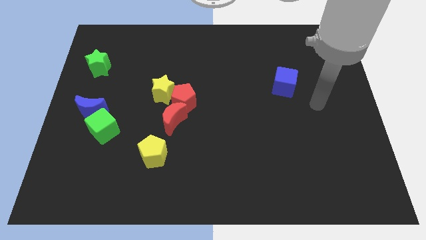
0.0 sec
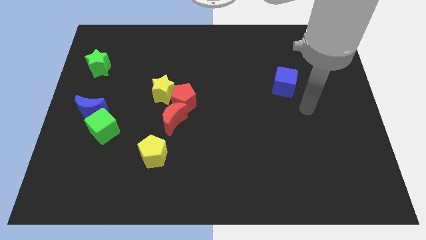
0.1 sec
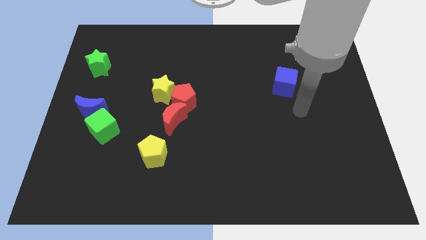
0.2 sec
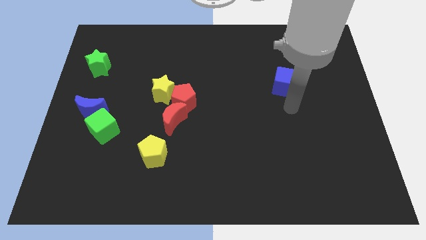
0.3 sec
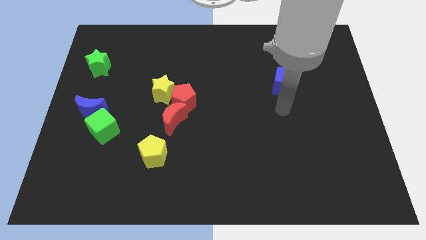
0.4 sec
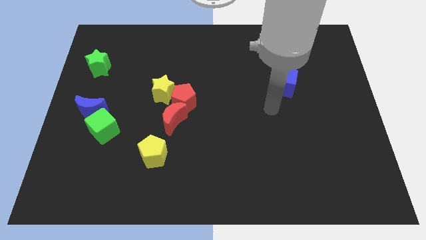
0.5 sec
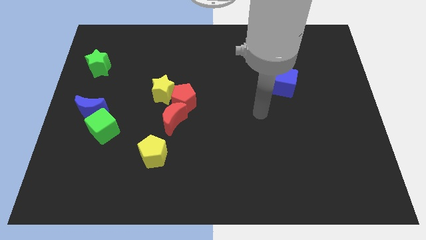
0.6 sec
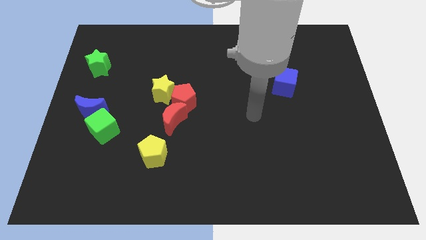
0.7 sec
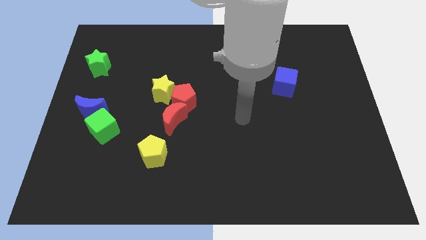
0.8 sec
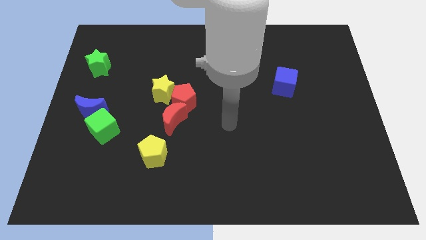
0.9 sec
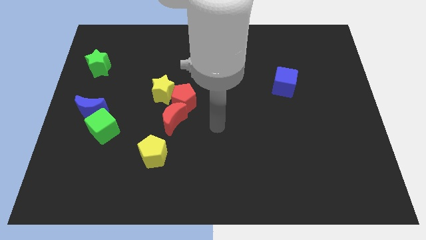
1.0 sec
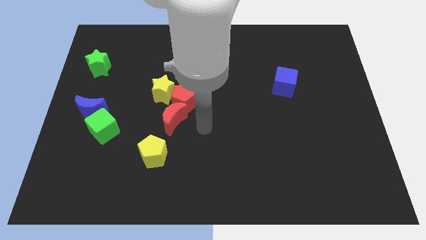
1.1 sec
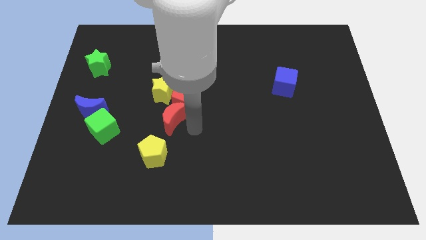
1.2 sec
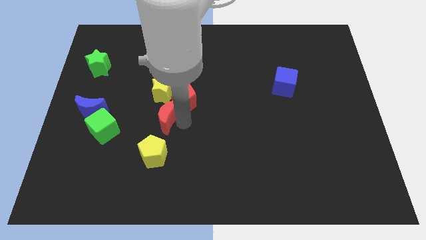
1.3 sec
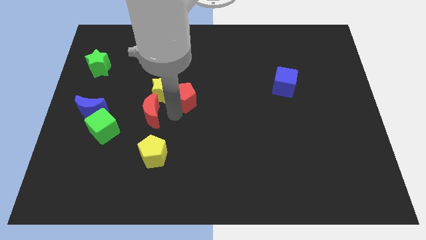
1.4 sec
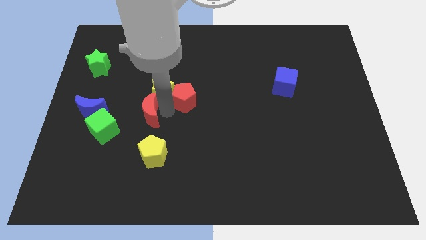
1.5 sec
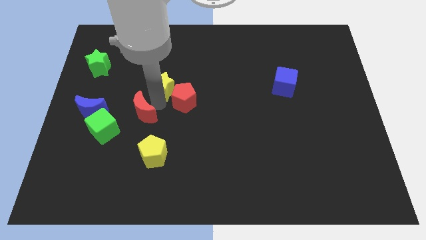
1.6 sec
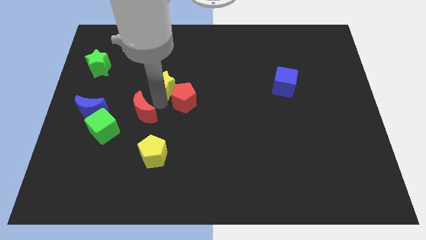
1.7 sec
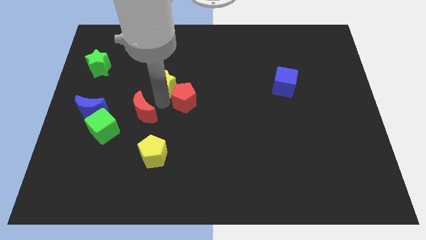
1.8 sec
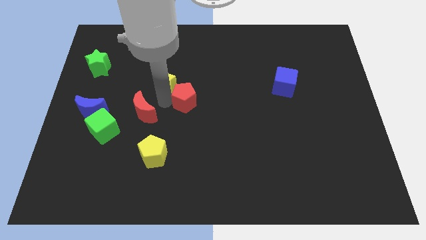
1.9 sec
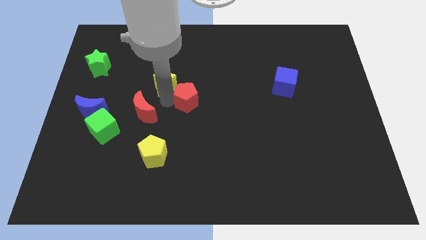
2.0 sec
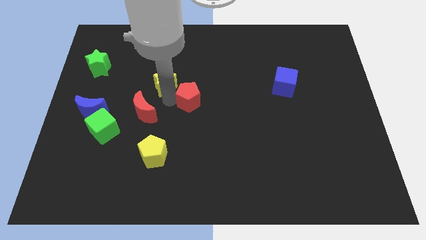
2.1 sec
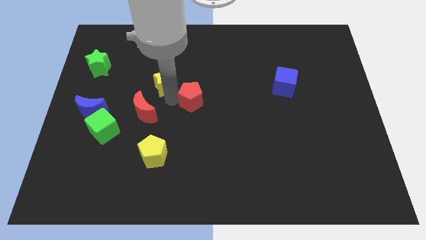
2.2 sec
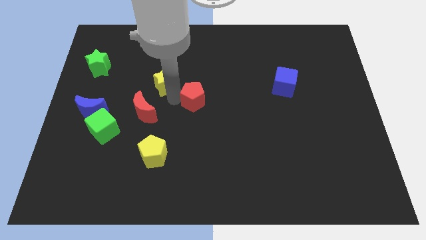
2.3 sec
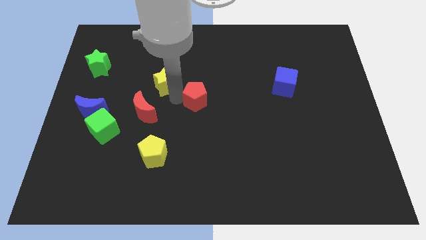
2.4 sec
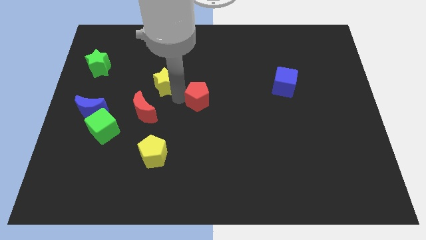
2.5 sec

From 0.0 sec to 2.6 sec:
pull the red pentagon apart from the yellow star and red moon

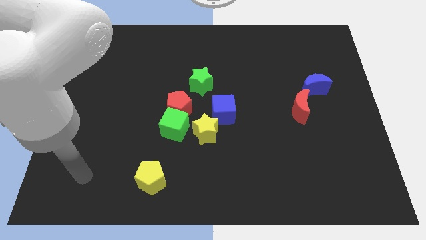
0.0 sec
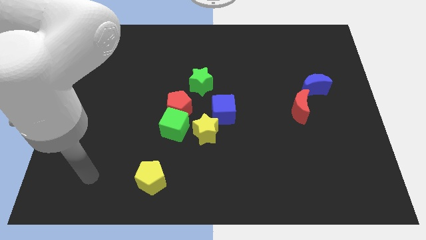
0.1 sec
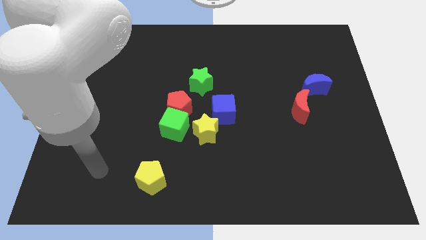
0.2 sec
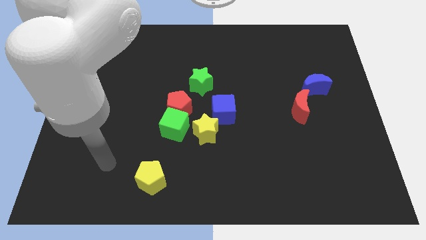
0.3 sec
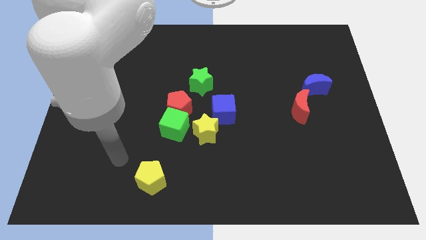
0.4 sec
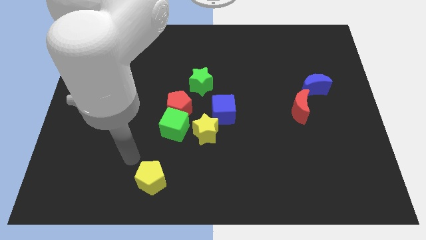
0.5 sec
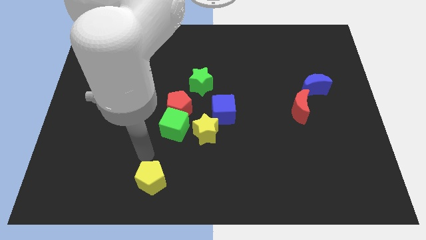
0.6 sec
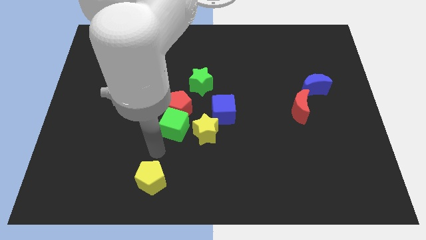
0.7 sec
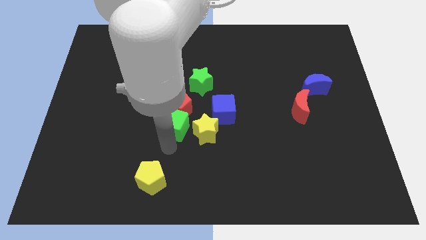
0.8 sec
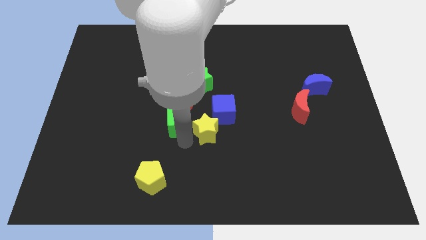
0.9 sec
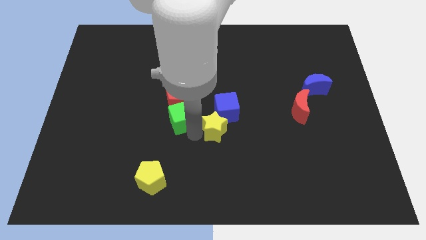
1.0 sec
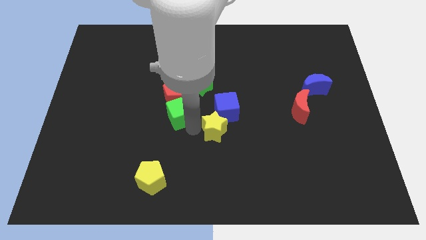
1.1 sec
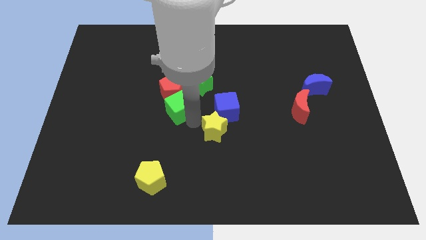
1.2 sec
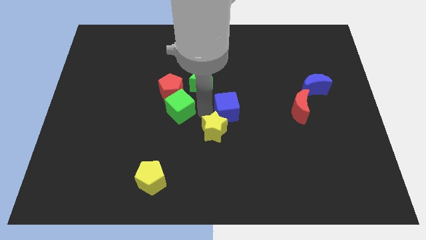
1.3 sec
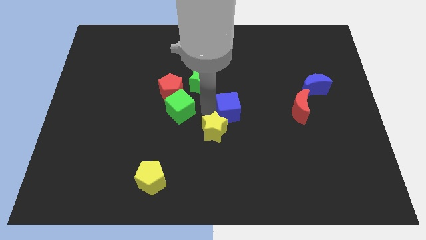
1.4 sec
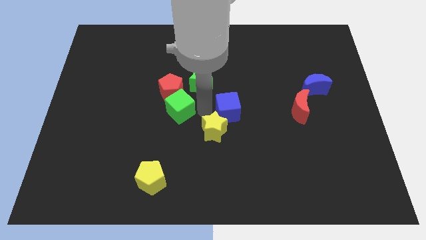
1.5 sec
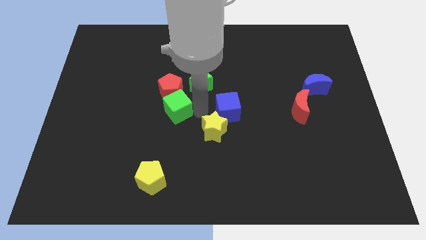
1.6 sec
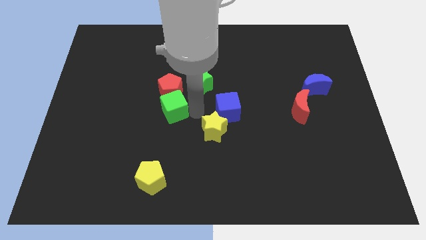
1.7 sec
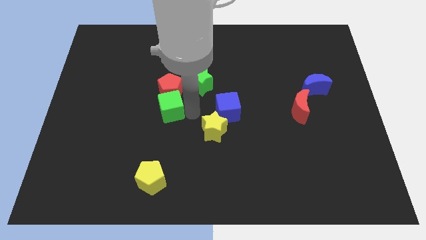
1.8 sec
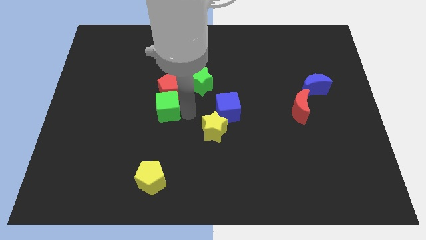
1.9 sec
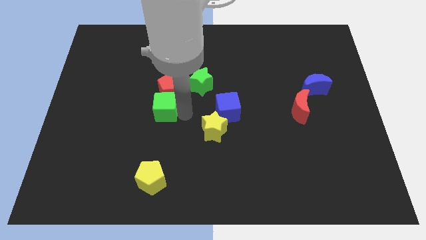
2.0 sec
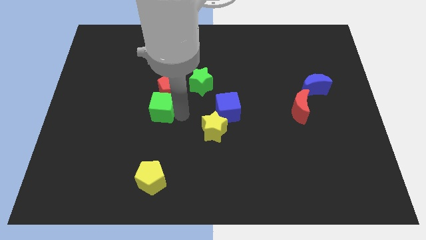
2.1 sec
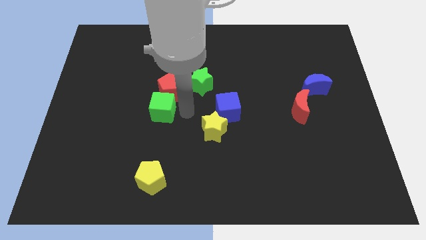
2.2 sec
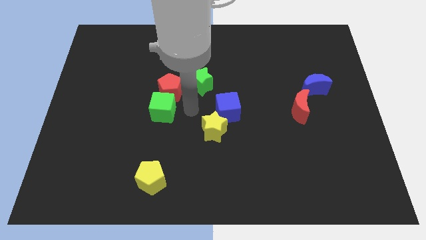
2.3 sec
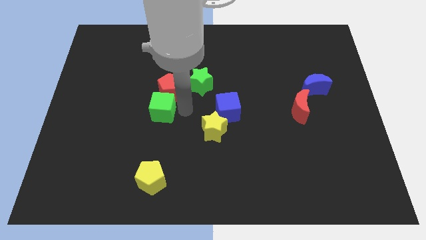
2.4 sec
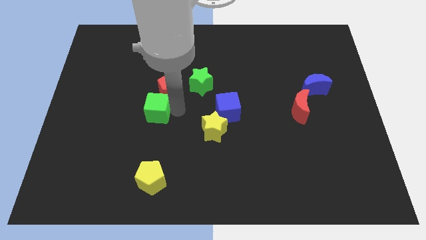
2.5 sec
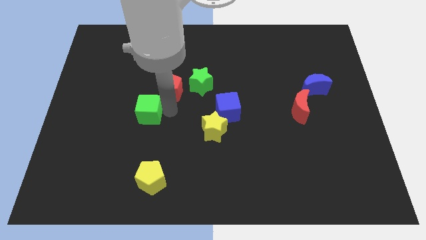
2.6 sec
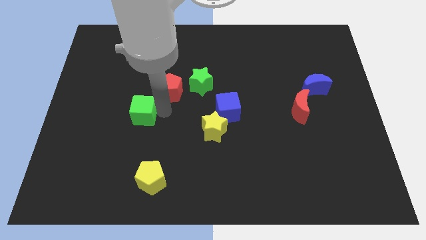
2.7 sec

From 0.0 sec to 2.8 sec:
move the green cube away from the red pentagon and yellow star

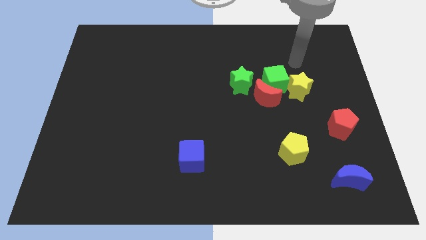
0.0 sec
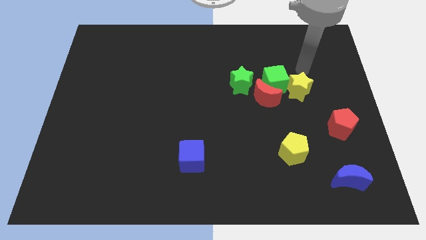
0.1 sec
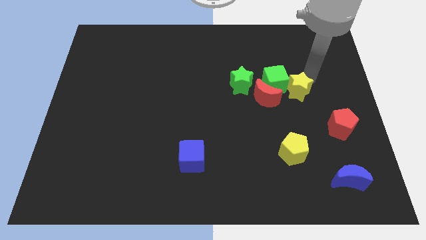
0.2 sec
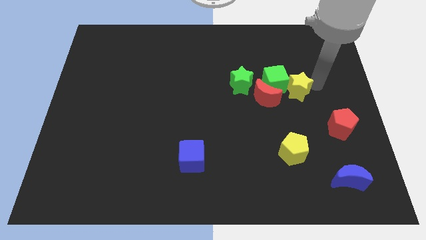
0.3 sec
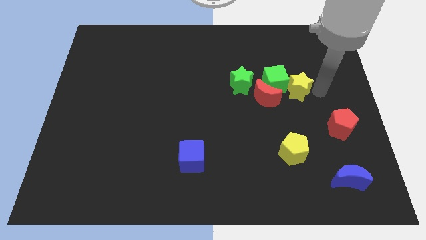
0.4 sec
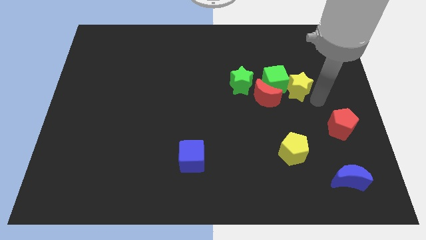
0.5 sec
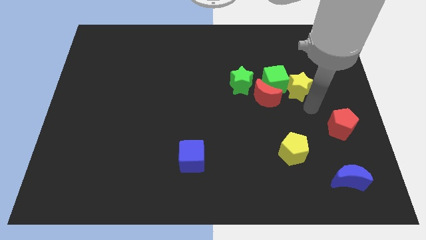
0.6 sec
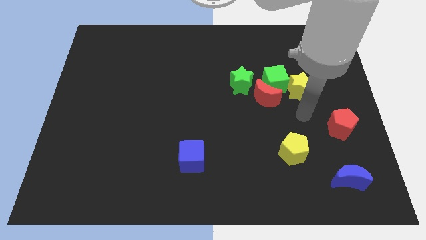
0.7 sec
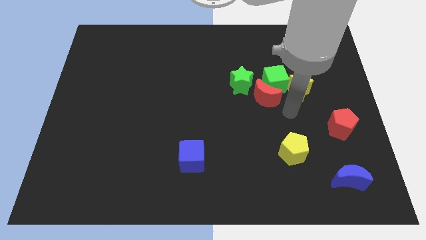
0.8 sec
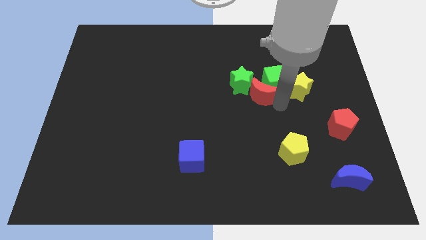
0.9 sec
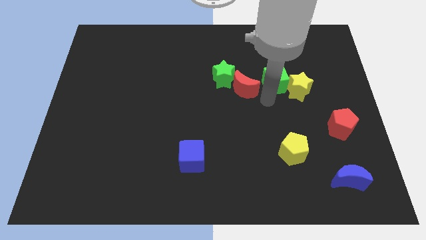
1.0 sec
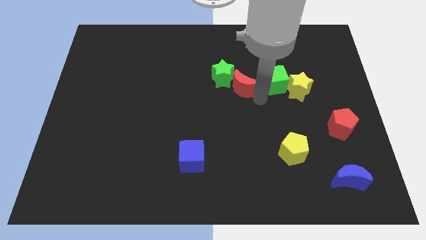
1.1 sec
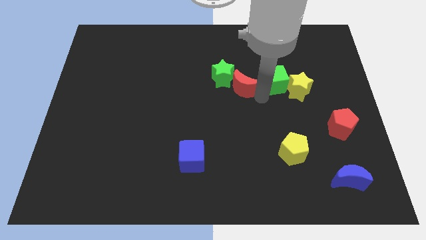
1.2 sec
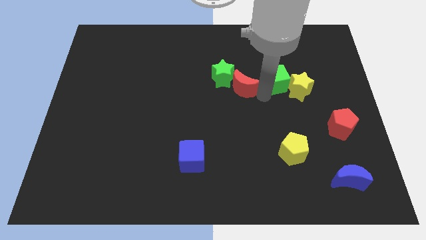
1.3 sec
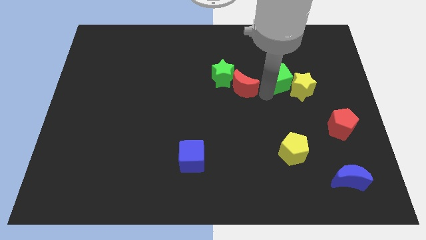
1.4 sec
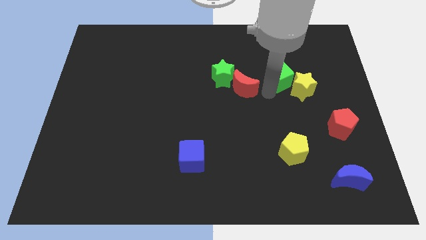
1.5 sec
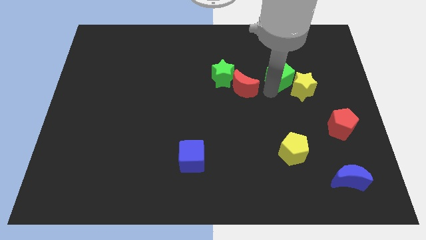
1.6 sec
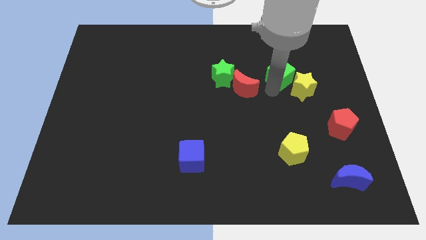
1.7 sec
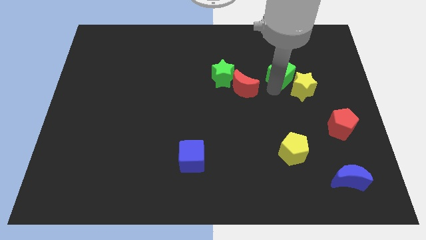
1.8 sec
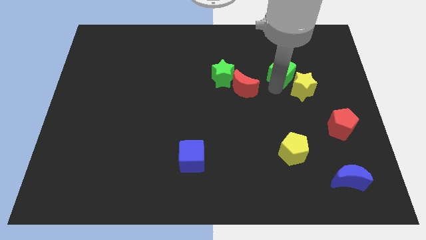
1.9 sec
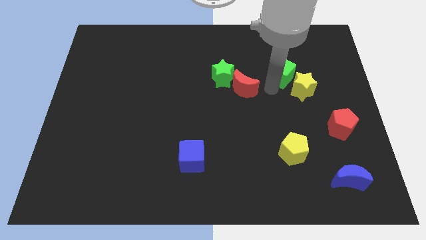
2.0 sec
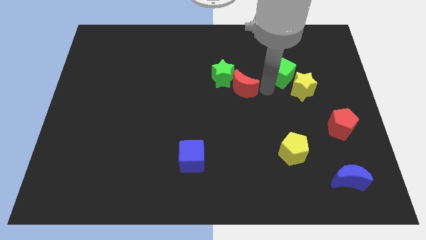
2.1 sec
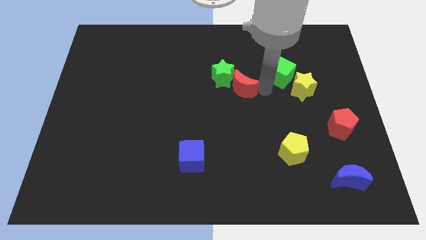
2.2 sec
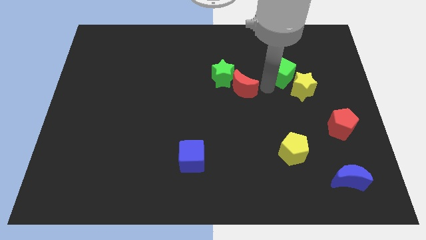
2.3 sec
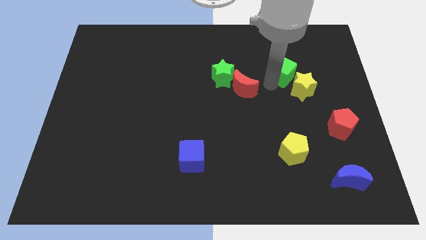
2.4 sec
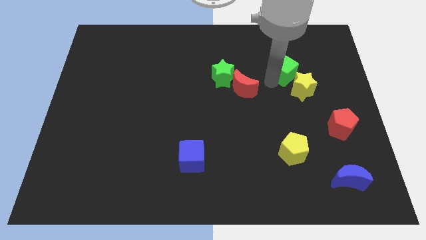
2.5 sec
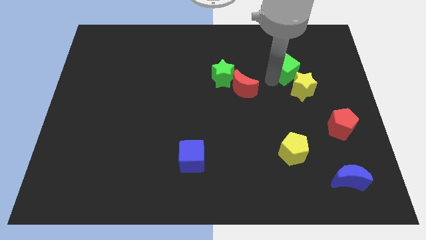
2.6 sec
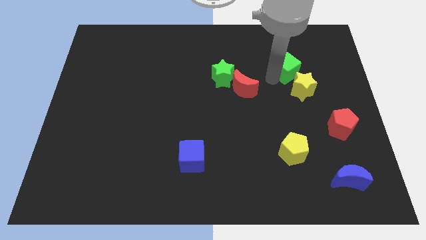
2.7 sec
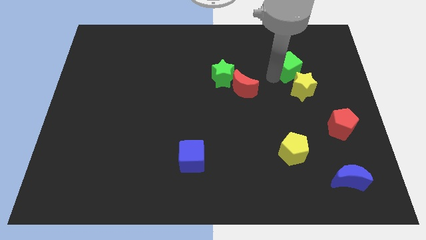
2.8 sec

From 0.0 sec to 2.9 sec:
move the green cube away from the clump

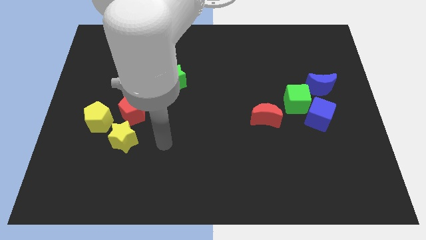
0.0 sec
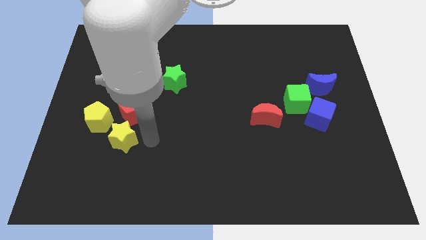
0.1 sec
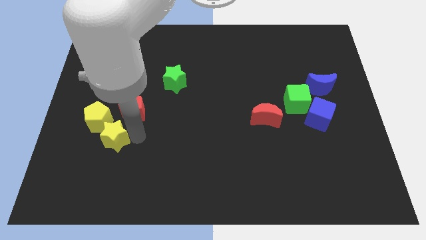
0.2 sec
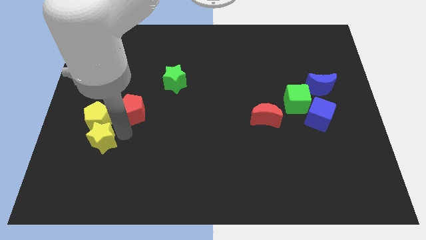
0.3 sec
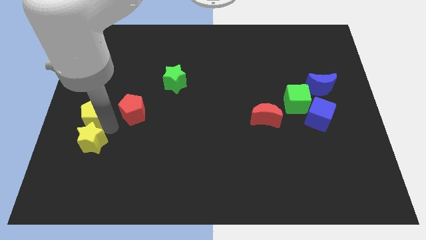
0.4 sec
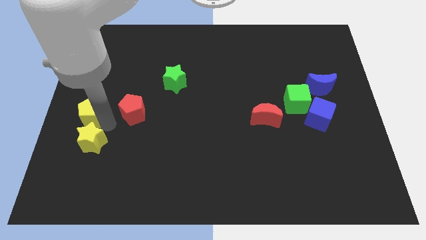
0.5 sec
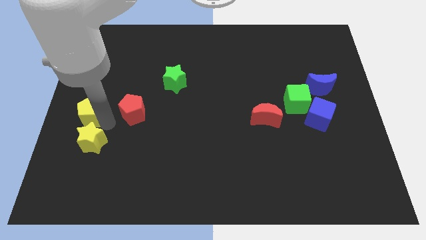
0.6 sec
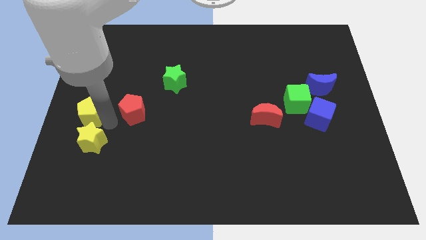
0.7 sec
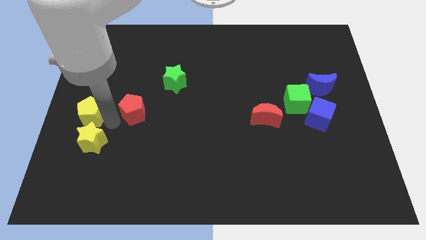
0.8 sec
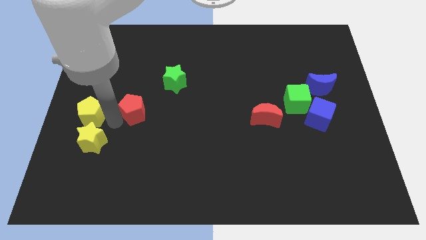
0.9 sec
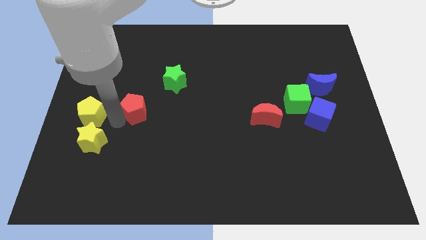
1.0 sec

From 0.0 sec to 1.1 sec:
pull the red pentagon apart from the yellow star and yellow pentagon
